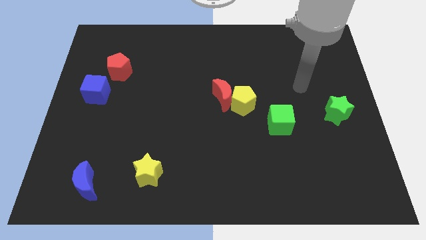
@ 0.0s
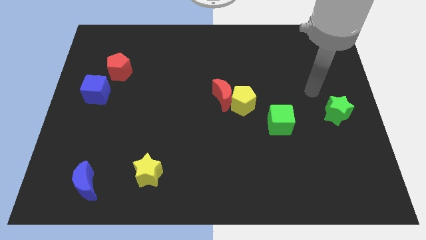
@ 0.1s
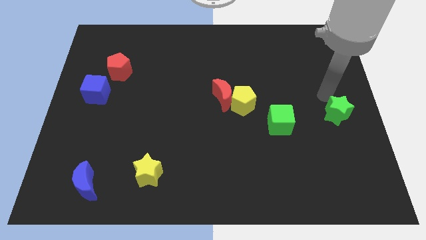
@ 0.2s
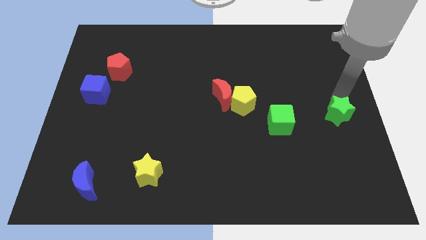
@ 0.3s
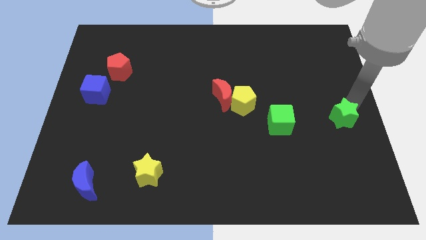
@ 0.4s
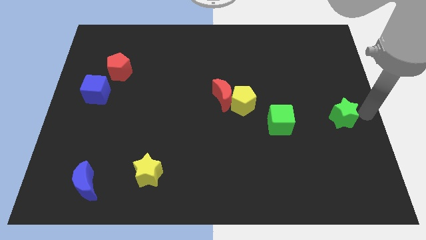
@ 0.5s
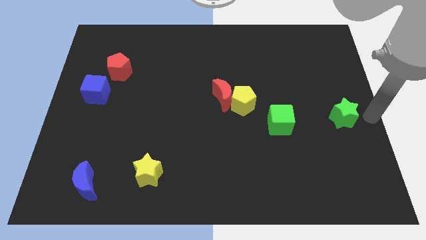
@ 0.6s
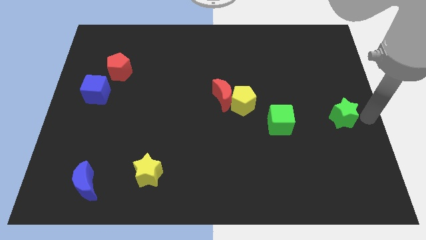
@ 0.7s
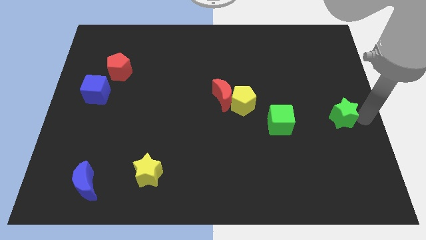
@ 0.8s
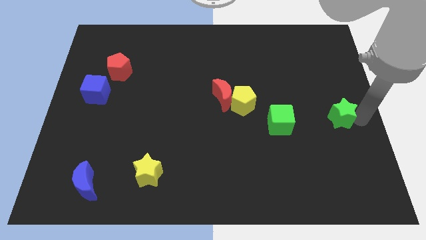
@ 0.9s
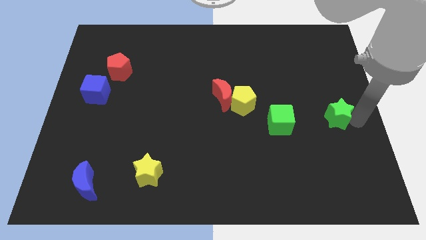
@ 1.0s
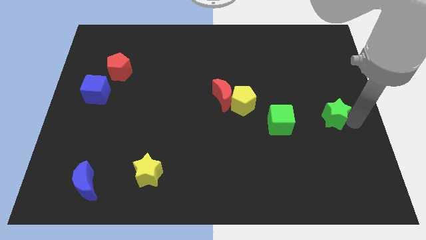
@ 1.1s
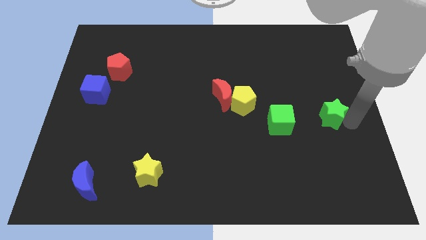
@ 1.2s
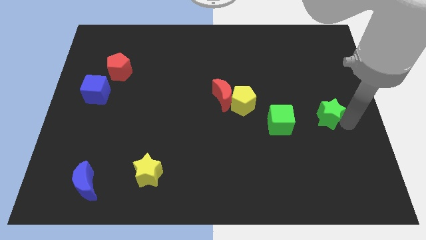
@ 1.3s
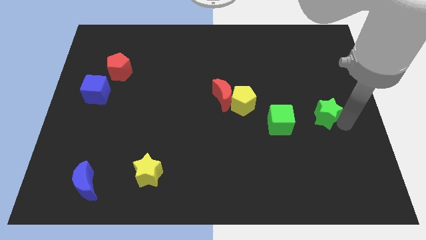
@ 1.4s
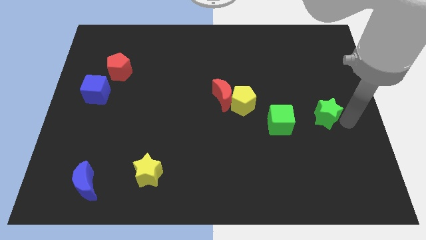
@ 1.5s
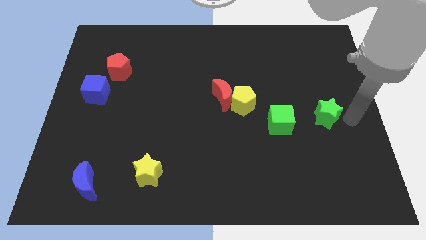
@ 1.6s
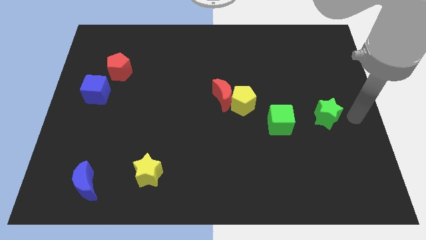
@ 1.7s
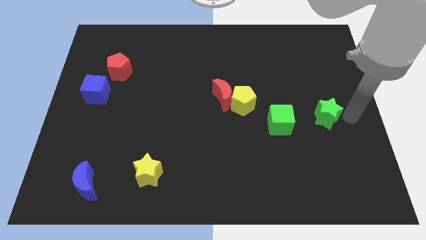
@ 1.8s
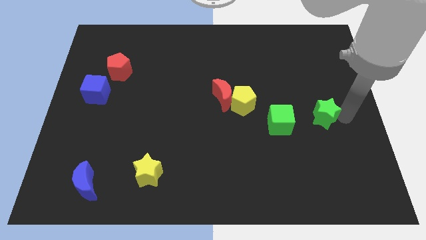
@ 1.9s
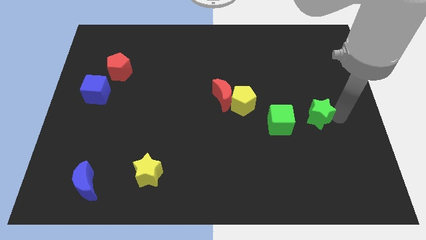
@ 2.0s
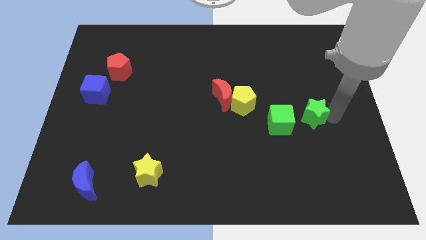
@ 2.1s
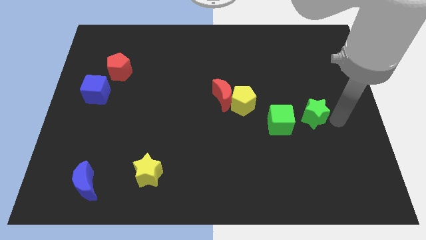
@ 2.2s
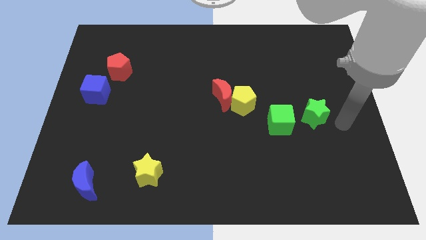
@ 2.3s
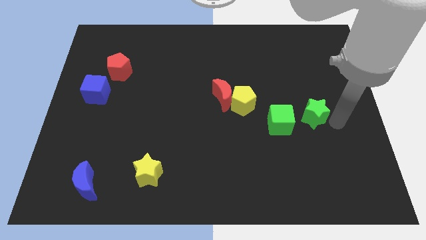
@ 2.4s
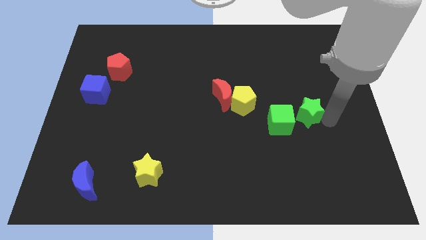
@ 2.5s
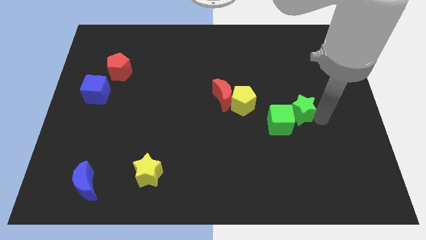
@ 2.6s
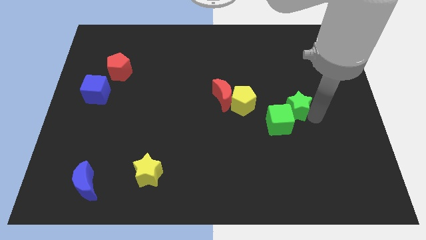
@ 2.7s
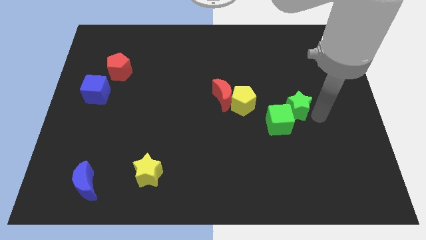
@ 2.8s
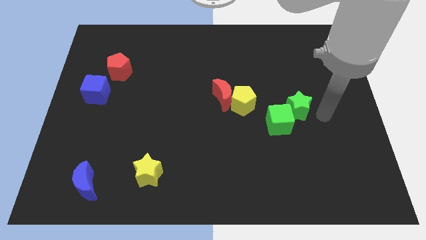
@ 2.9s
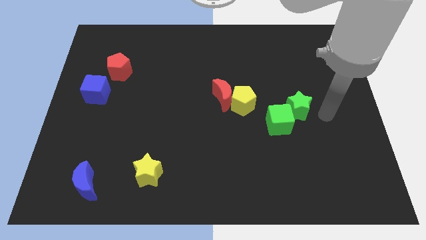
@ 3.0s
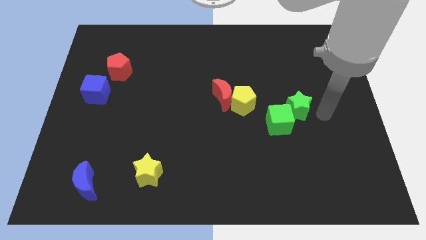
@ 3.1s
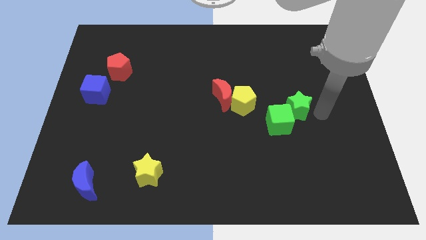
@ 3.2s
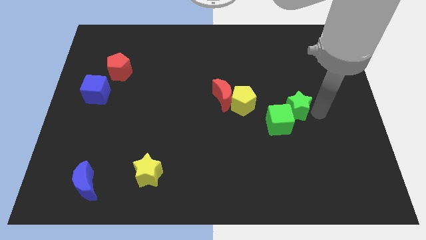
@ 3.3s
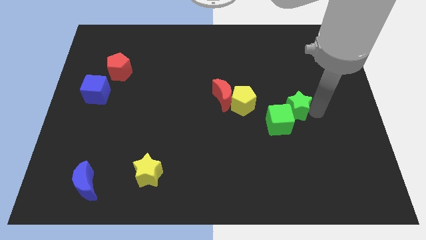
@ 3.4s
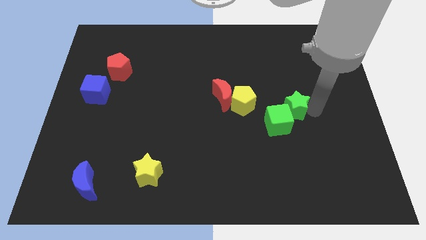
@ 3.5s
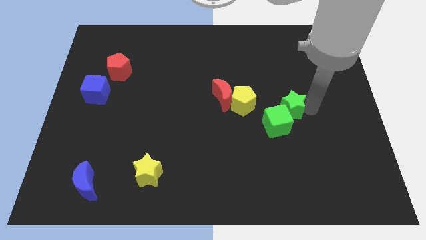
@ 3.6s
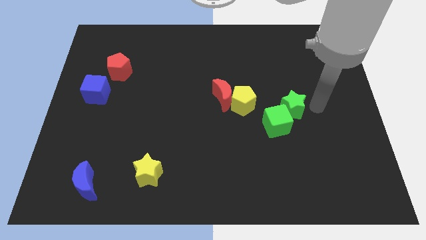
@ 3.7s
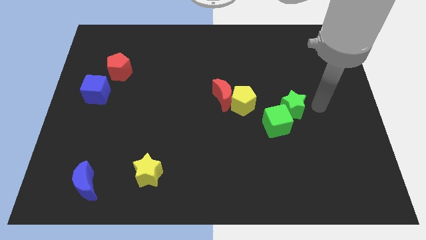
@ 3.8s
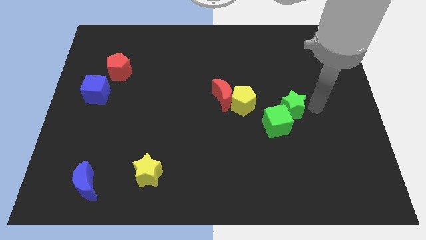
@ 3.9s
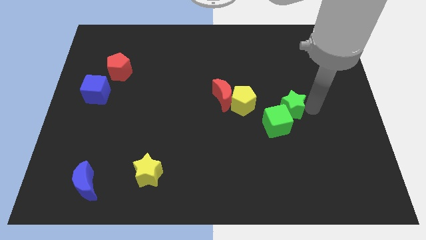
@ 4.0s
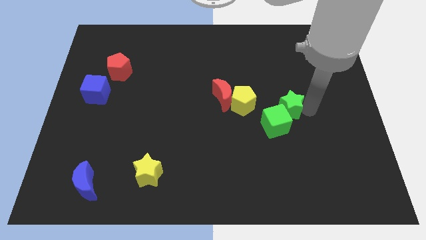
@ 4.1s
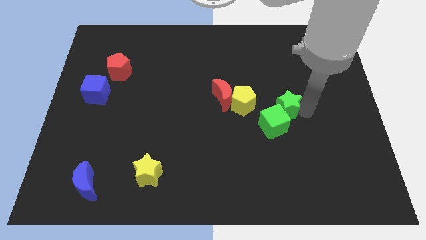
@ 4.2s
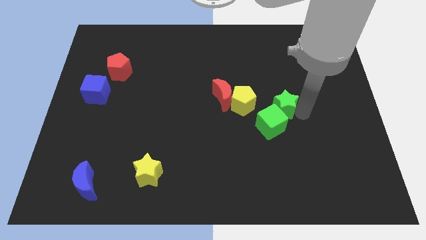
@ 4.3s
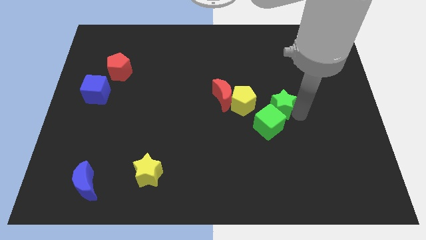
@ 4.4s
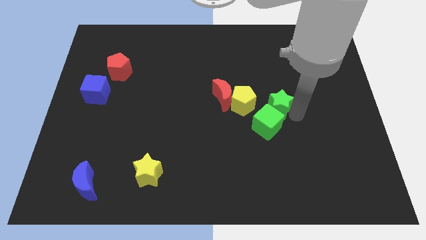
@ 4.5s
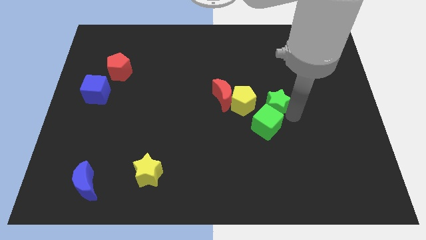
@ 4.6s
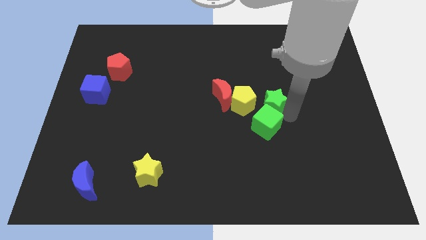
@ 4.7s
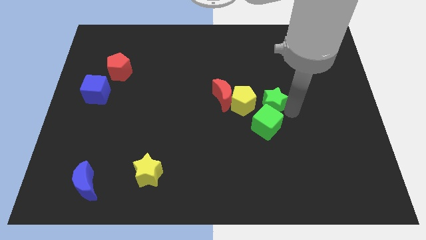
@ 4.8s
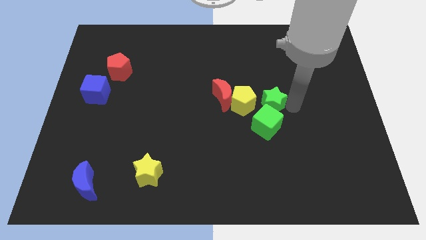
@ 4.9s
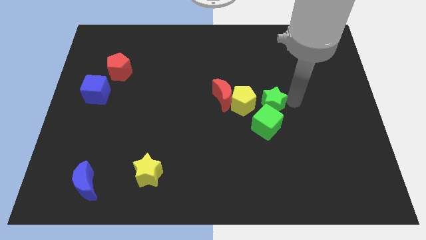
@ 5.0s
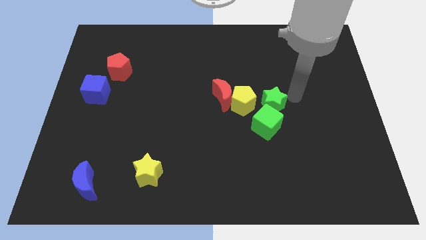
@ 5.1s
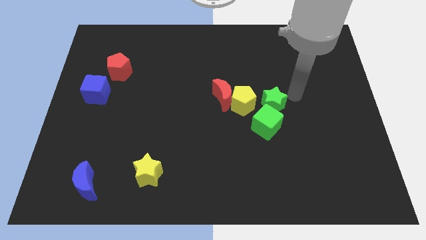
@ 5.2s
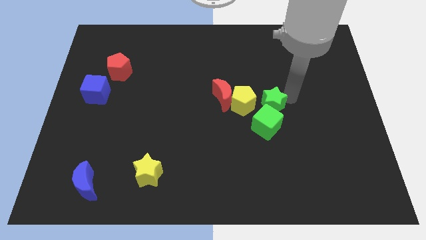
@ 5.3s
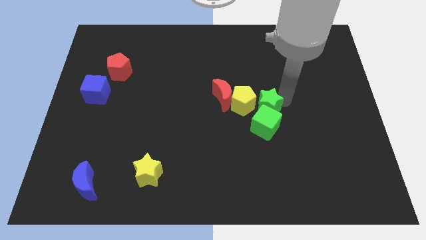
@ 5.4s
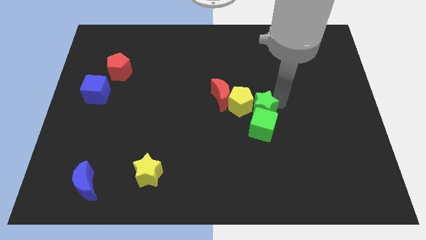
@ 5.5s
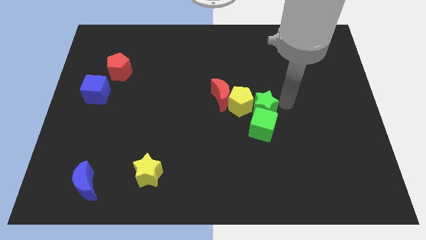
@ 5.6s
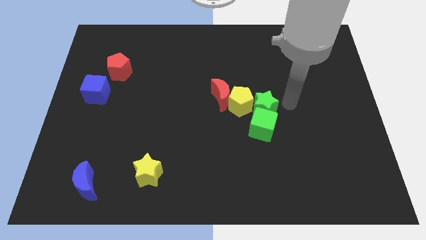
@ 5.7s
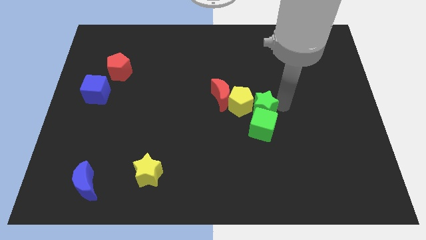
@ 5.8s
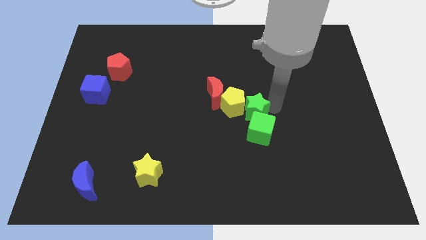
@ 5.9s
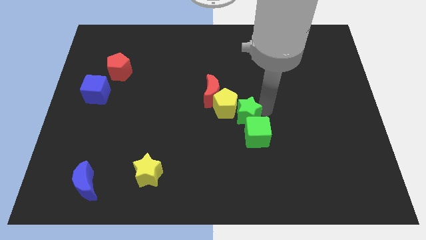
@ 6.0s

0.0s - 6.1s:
push the green star left

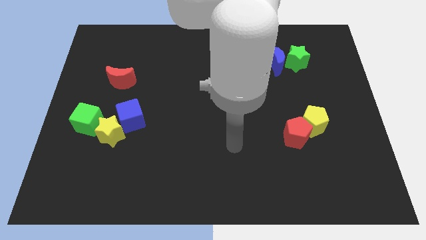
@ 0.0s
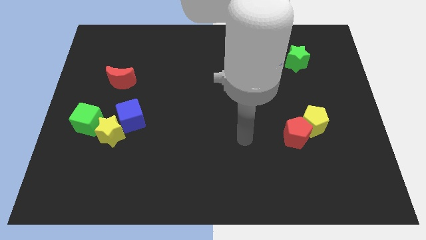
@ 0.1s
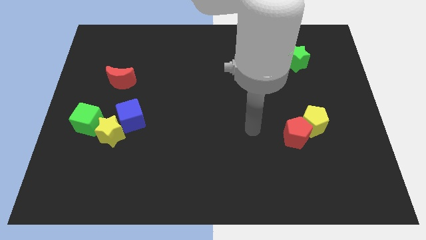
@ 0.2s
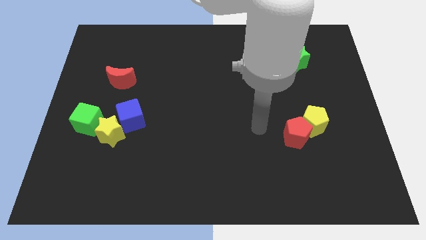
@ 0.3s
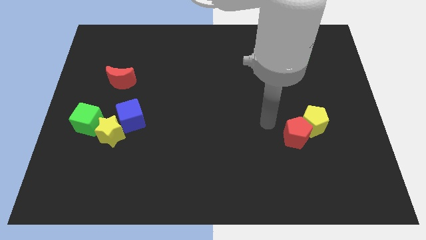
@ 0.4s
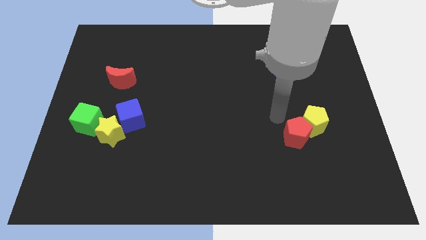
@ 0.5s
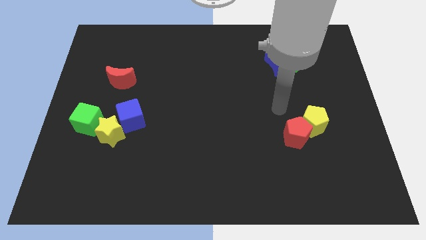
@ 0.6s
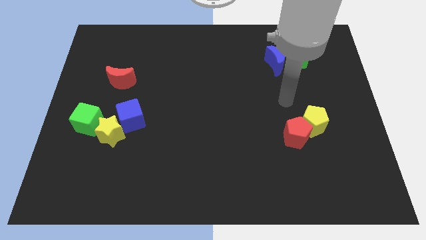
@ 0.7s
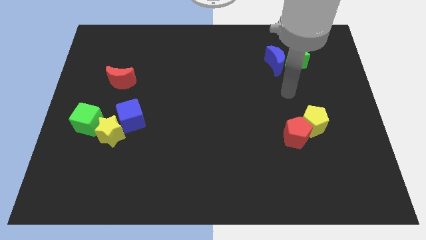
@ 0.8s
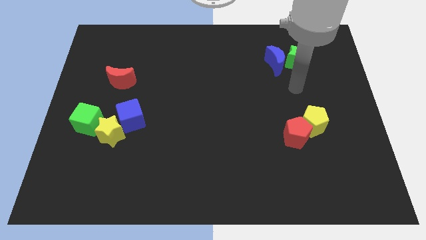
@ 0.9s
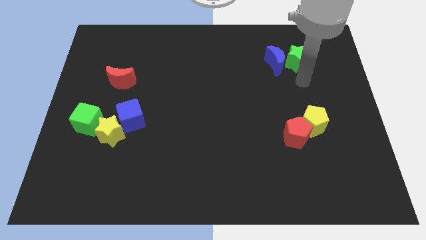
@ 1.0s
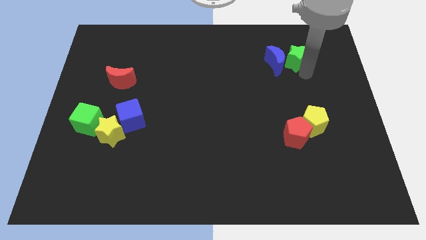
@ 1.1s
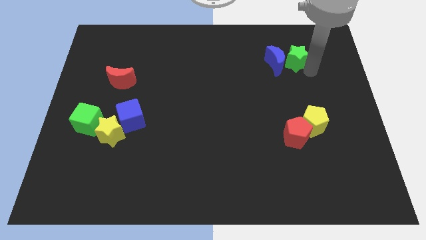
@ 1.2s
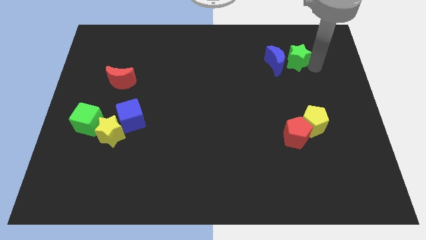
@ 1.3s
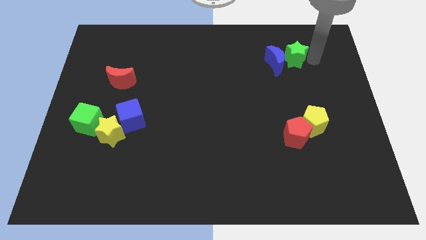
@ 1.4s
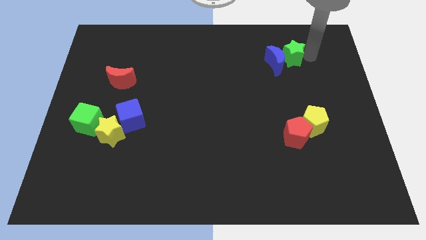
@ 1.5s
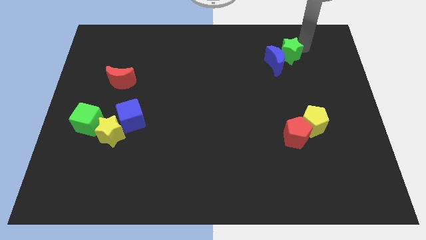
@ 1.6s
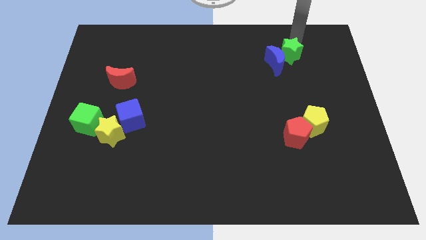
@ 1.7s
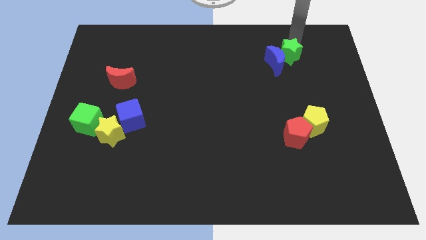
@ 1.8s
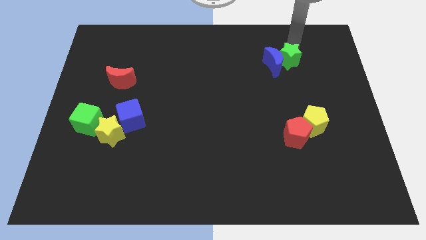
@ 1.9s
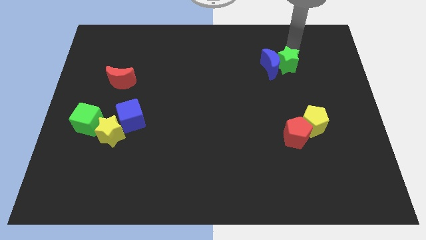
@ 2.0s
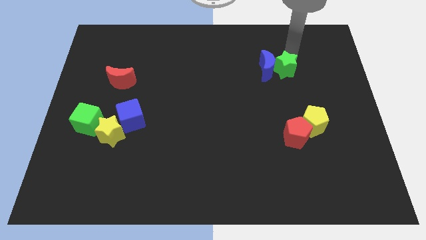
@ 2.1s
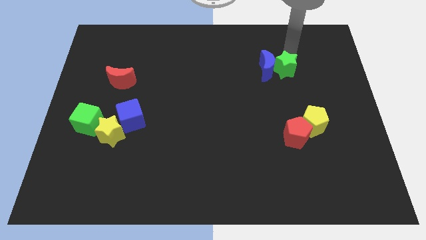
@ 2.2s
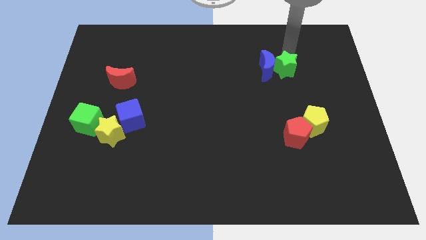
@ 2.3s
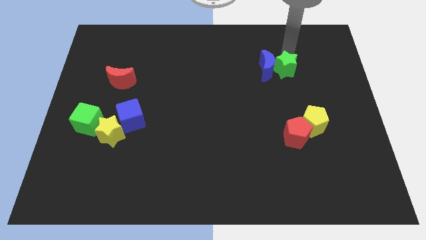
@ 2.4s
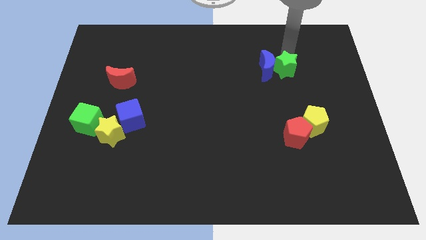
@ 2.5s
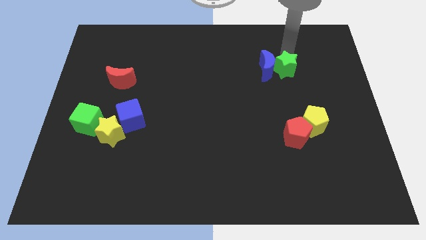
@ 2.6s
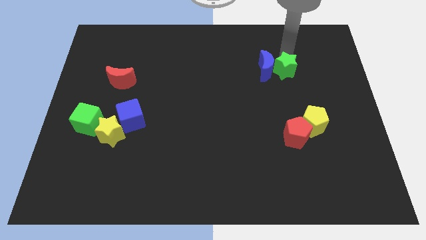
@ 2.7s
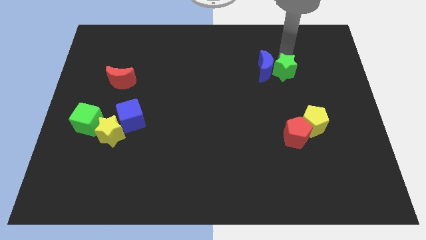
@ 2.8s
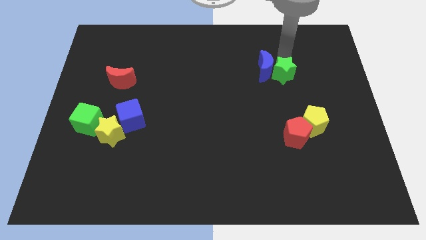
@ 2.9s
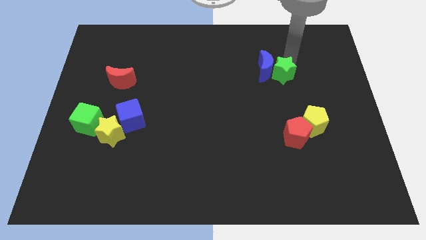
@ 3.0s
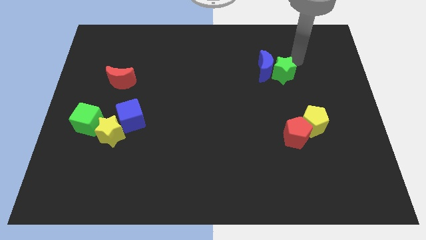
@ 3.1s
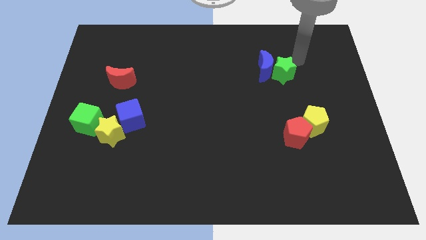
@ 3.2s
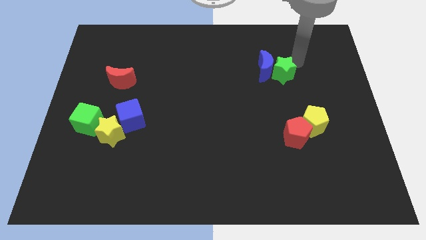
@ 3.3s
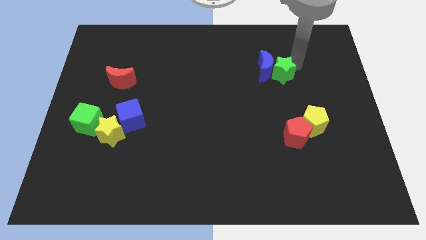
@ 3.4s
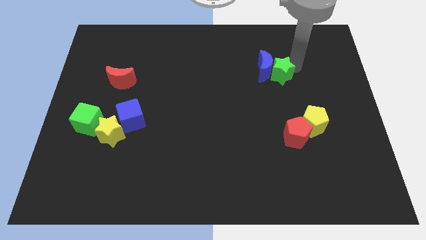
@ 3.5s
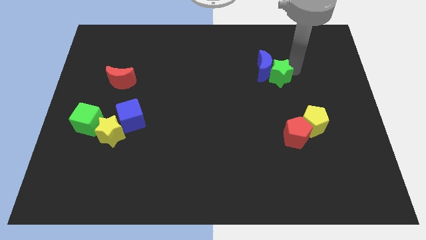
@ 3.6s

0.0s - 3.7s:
move the green star a bit down and then left
